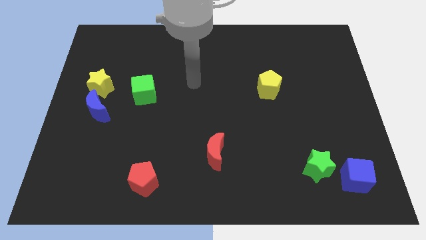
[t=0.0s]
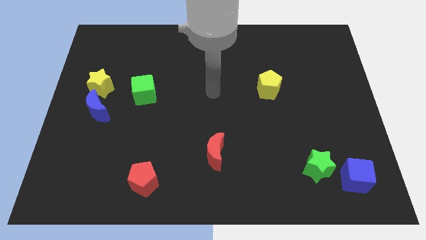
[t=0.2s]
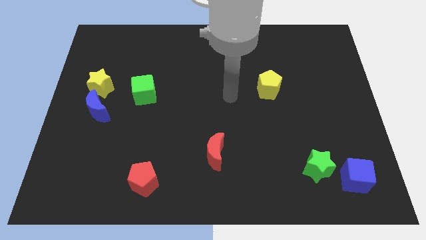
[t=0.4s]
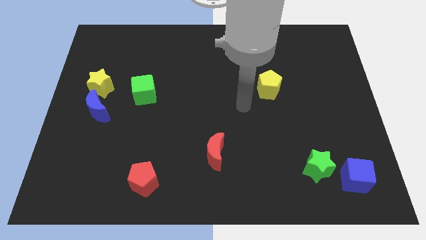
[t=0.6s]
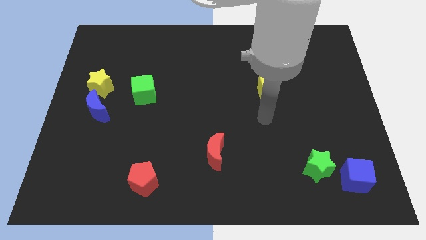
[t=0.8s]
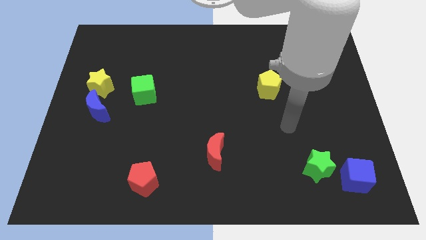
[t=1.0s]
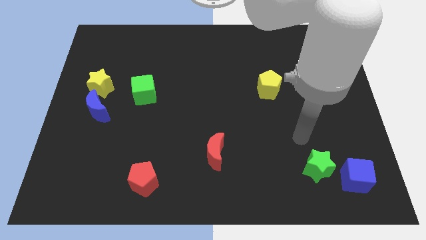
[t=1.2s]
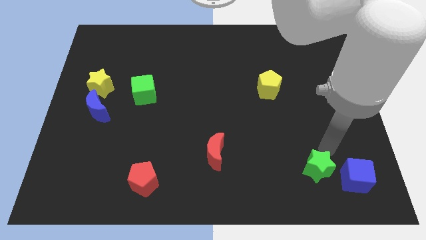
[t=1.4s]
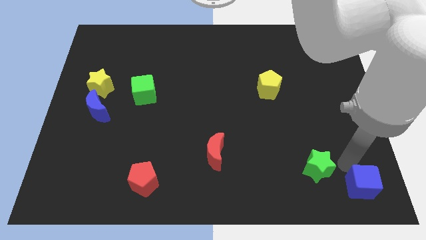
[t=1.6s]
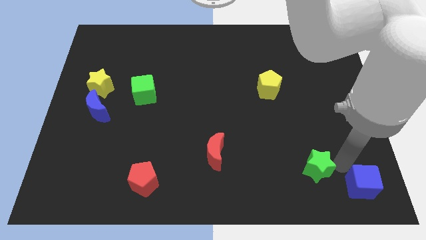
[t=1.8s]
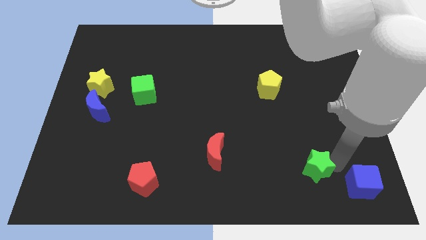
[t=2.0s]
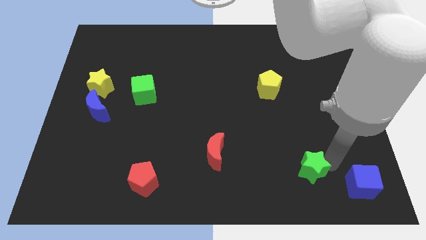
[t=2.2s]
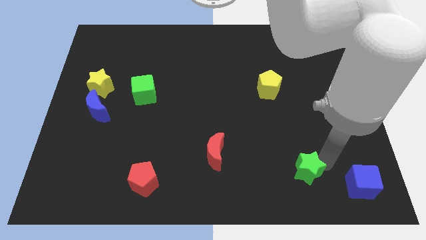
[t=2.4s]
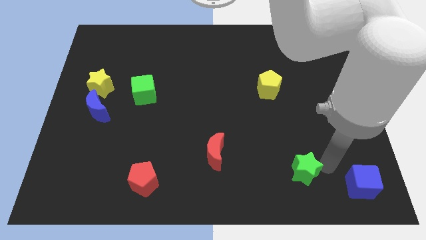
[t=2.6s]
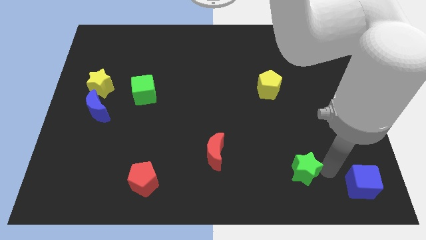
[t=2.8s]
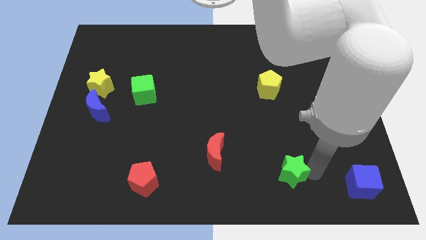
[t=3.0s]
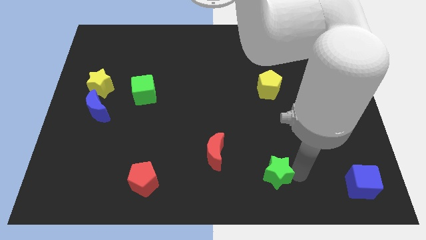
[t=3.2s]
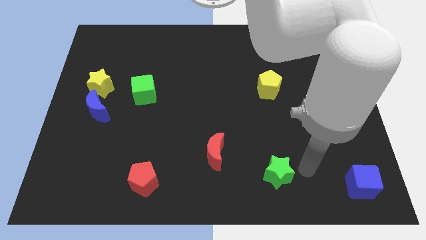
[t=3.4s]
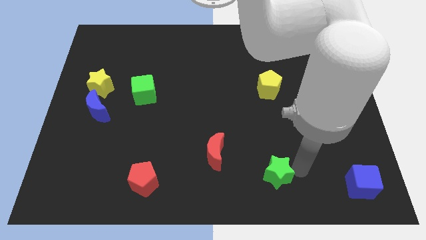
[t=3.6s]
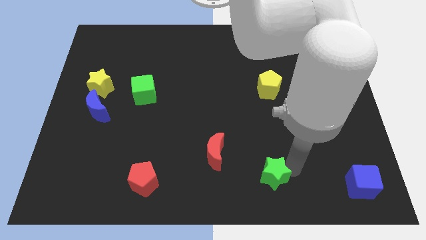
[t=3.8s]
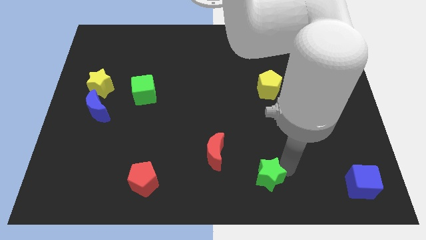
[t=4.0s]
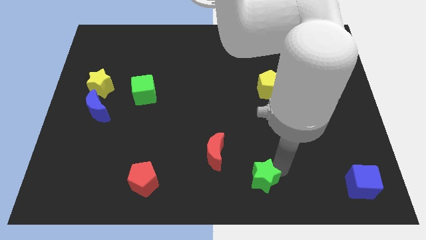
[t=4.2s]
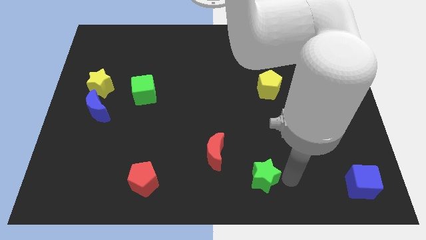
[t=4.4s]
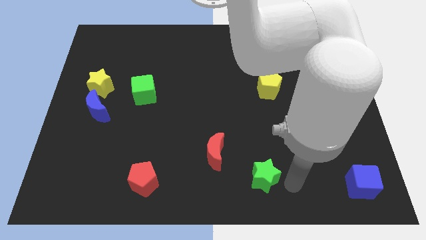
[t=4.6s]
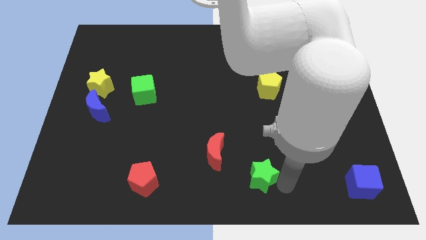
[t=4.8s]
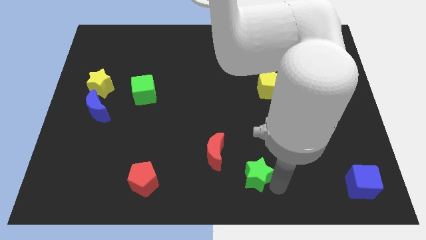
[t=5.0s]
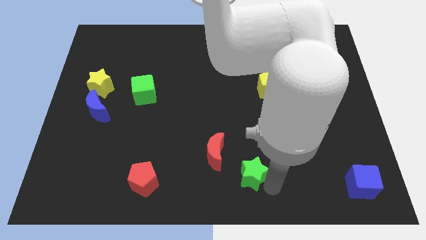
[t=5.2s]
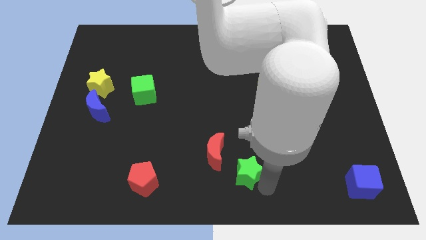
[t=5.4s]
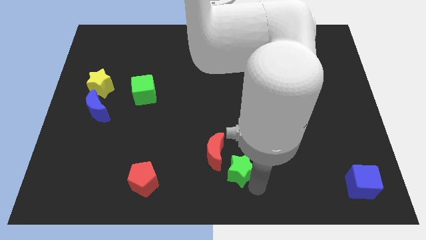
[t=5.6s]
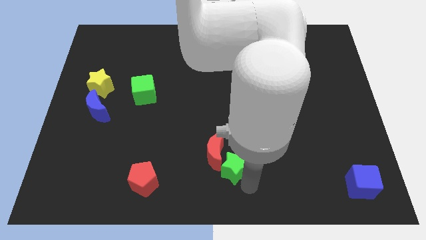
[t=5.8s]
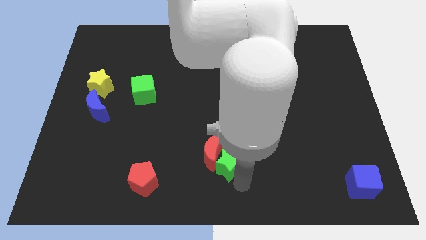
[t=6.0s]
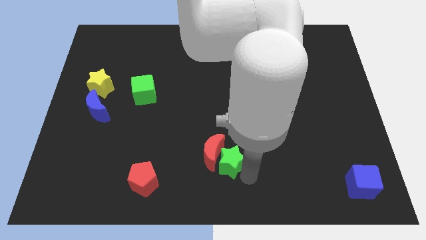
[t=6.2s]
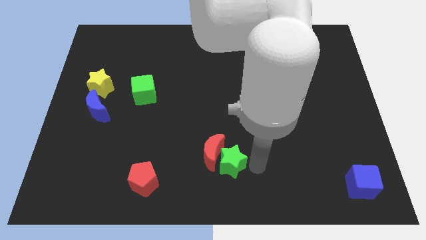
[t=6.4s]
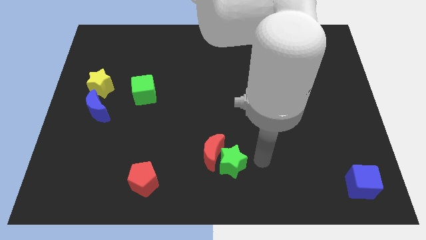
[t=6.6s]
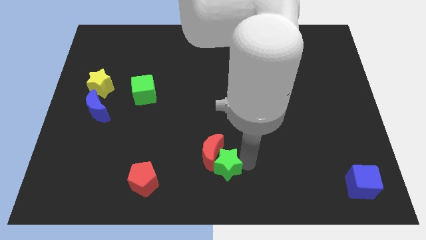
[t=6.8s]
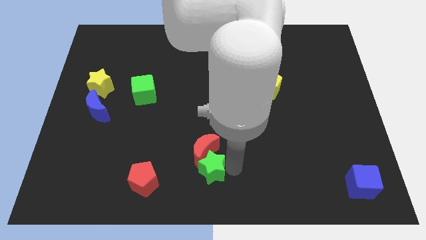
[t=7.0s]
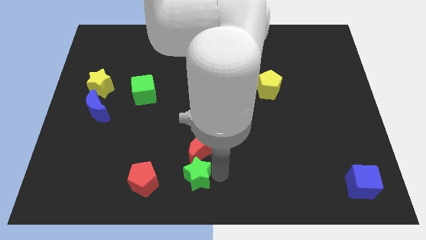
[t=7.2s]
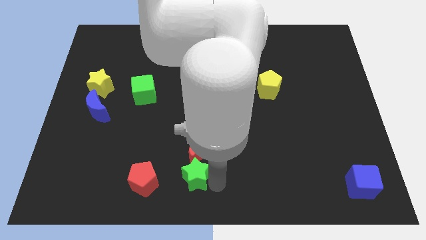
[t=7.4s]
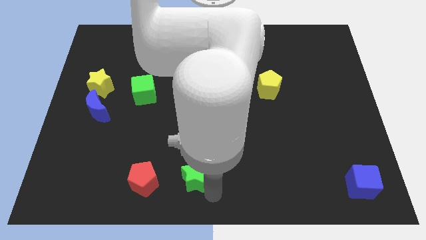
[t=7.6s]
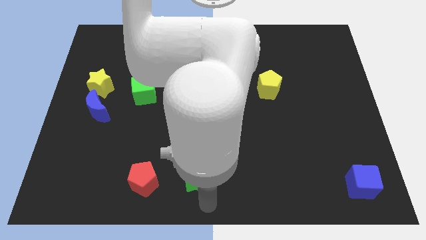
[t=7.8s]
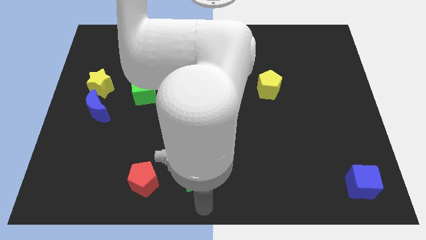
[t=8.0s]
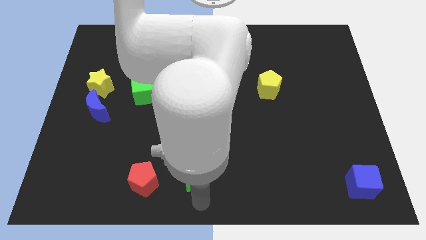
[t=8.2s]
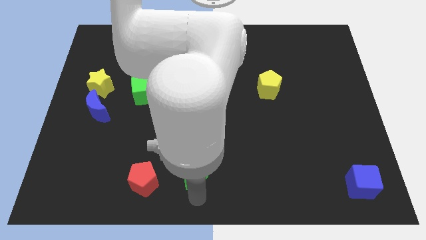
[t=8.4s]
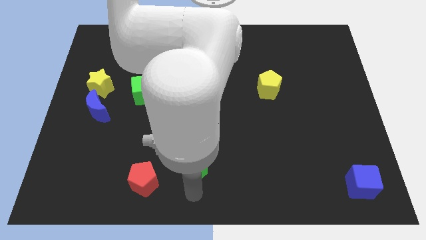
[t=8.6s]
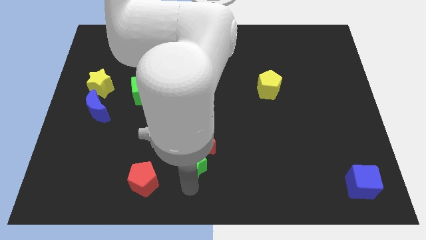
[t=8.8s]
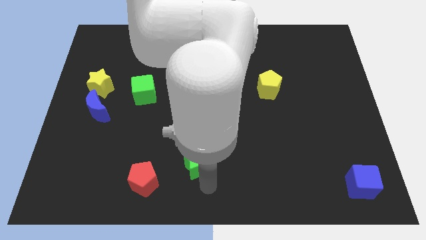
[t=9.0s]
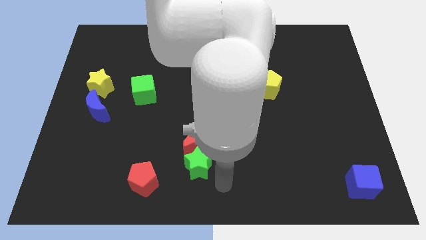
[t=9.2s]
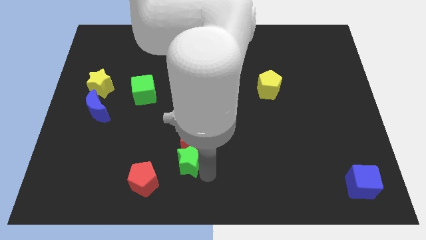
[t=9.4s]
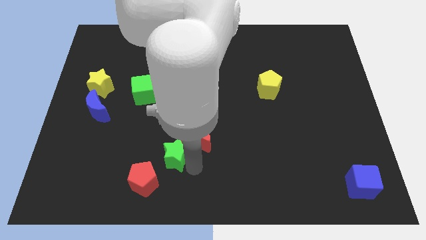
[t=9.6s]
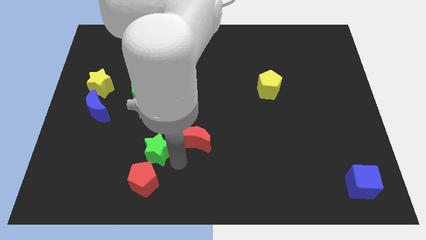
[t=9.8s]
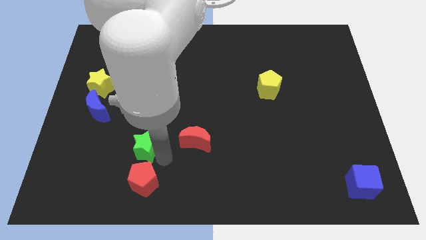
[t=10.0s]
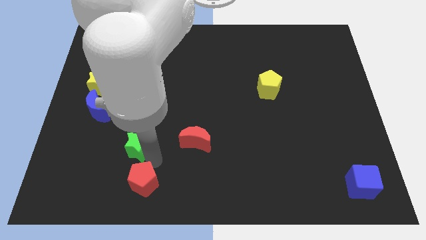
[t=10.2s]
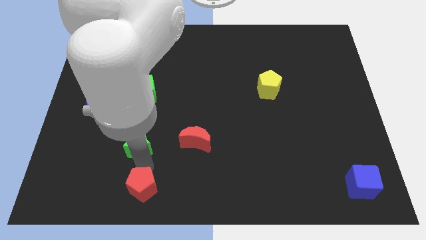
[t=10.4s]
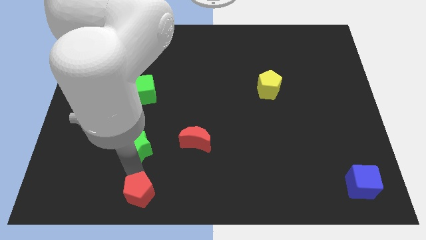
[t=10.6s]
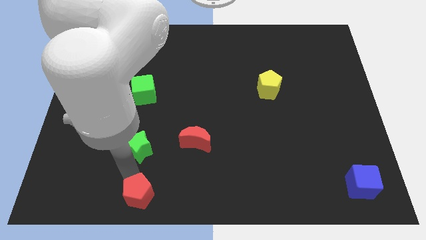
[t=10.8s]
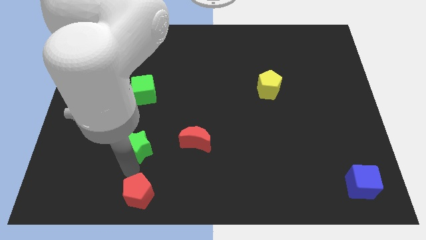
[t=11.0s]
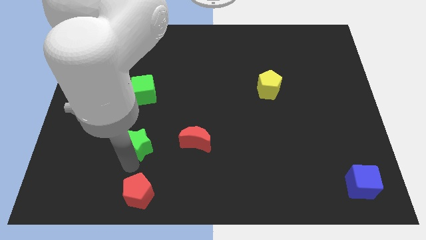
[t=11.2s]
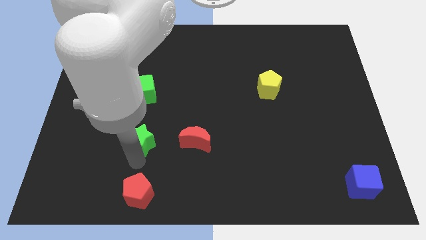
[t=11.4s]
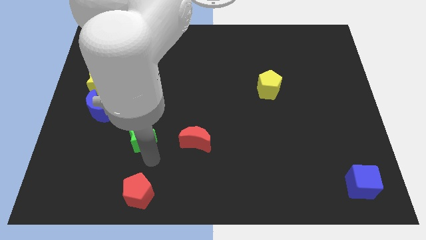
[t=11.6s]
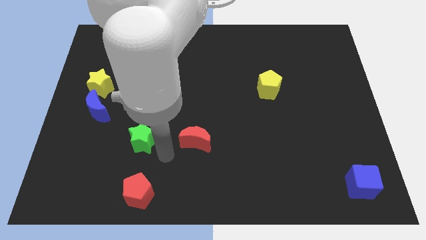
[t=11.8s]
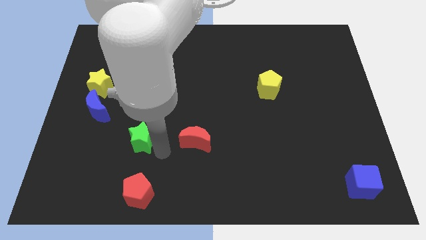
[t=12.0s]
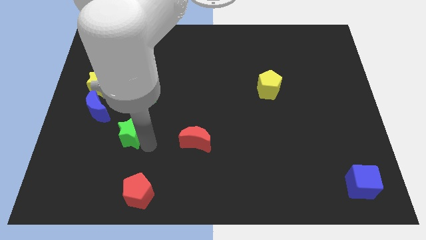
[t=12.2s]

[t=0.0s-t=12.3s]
move the green star diagonally down and to the right of the blue moon
